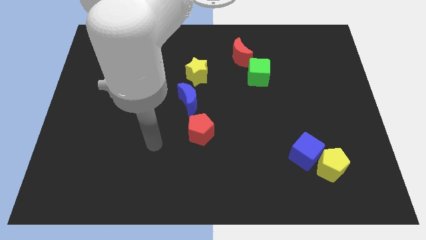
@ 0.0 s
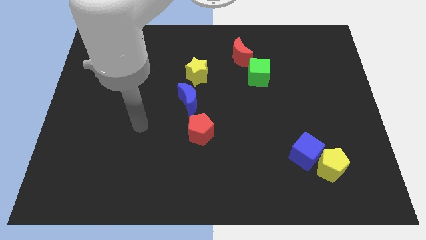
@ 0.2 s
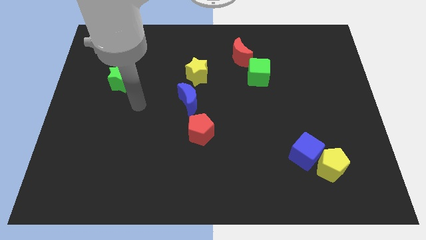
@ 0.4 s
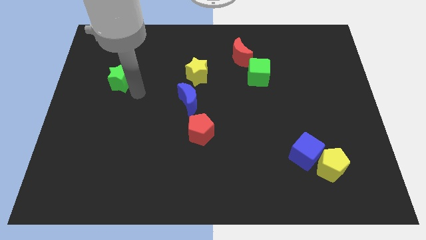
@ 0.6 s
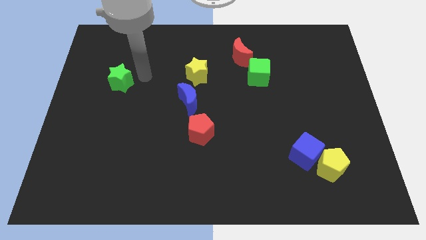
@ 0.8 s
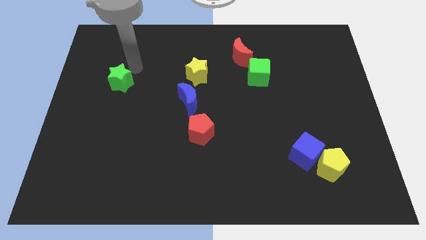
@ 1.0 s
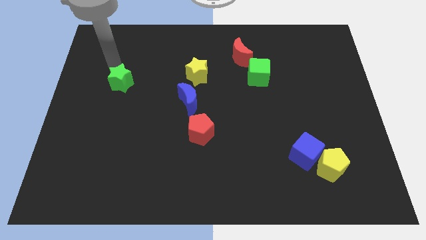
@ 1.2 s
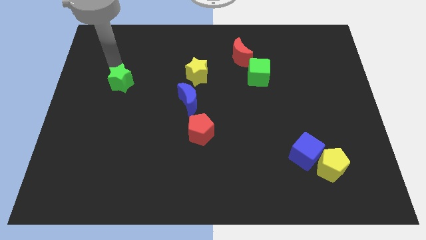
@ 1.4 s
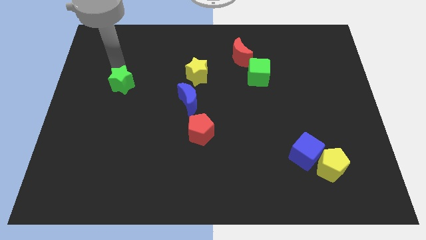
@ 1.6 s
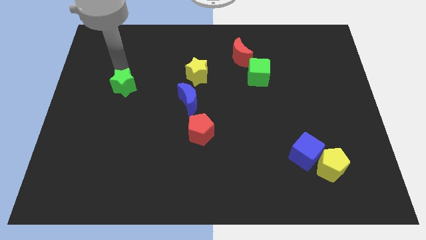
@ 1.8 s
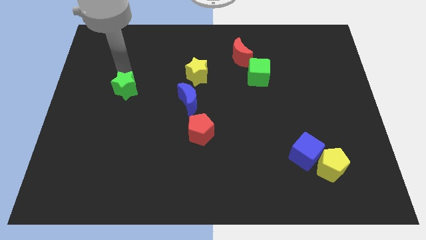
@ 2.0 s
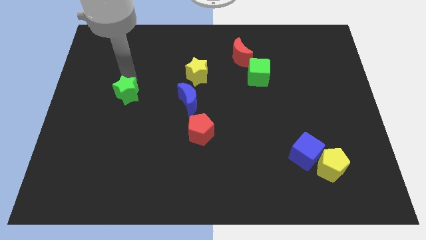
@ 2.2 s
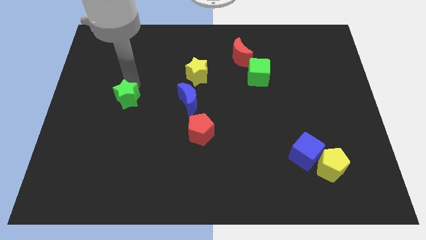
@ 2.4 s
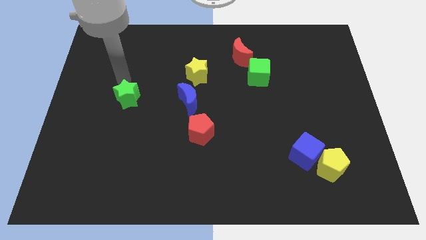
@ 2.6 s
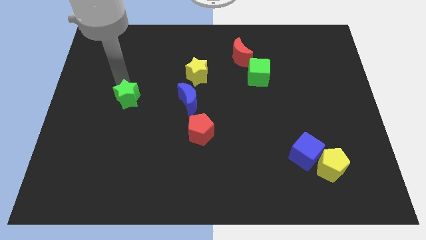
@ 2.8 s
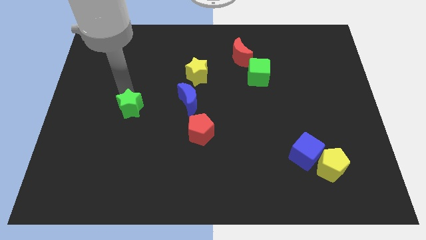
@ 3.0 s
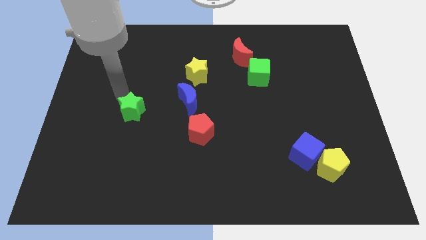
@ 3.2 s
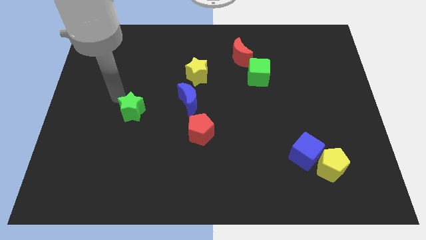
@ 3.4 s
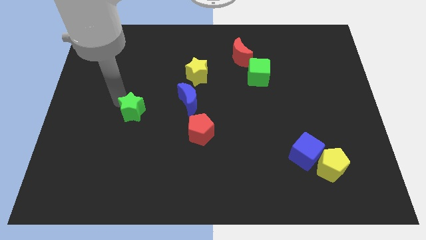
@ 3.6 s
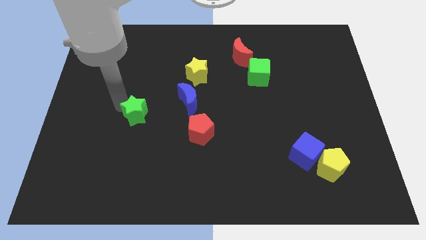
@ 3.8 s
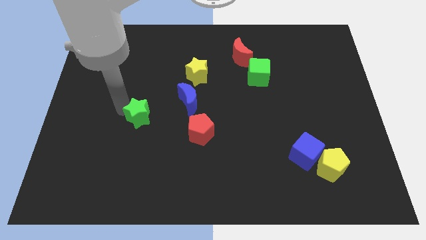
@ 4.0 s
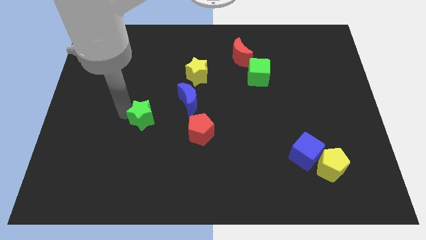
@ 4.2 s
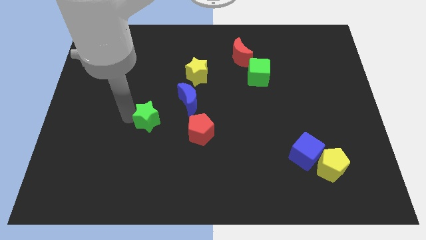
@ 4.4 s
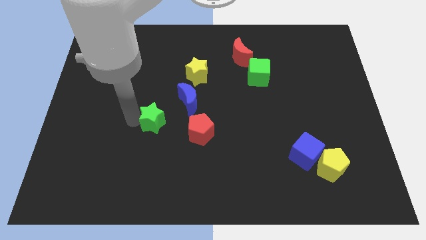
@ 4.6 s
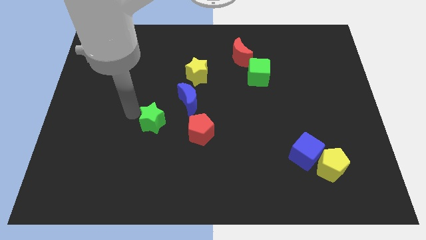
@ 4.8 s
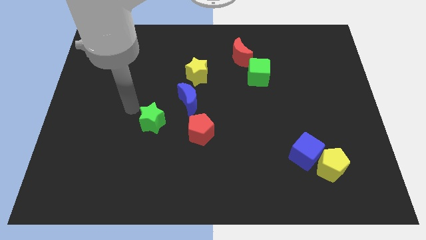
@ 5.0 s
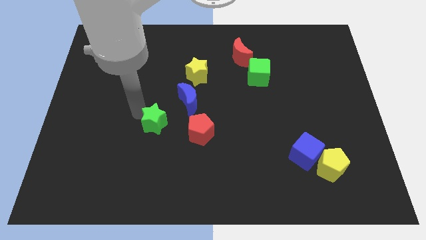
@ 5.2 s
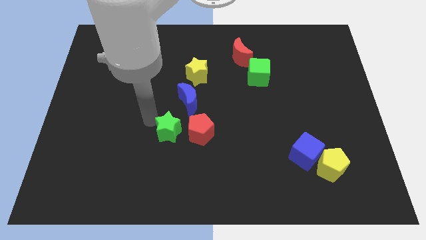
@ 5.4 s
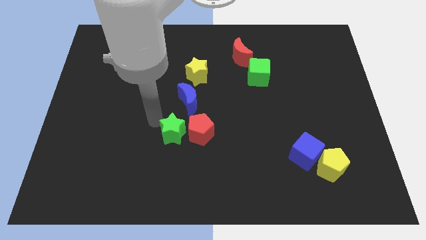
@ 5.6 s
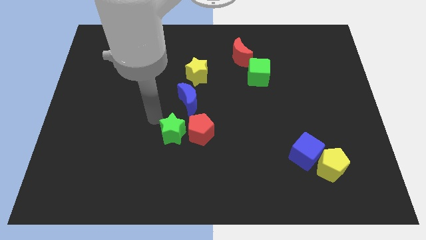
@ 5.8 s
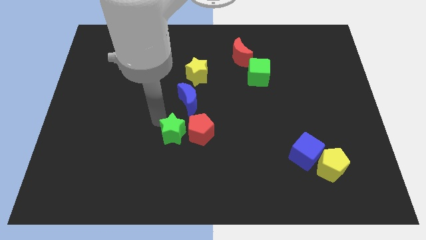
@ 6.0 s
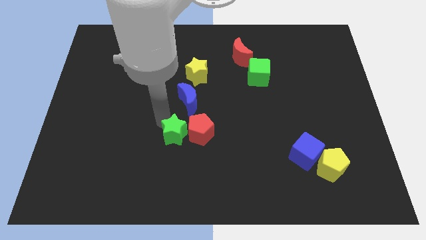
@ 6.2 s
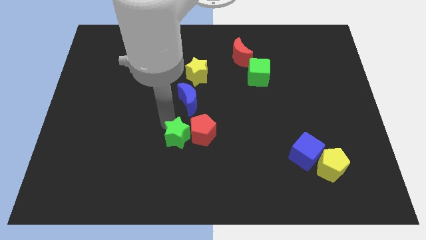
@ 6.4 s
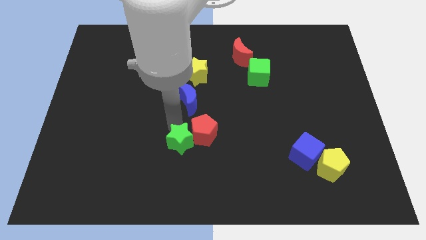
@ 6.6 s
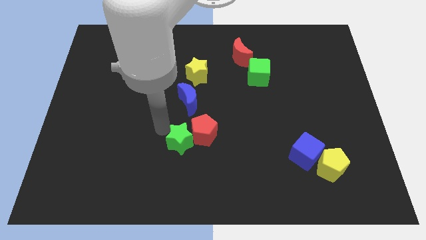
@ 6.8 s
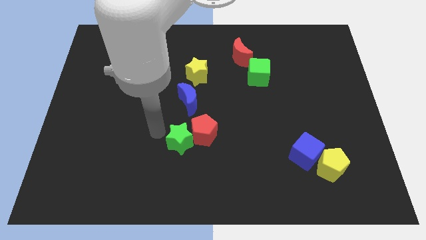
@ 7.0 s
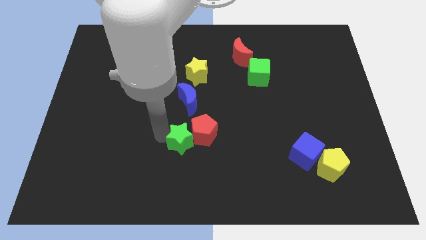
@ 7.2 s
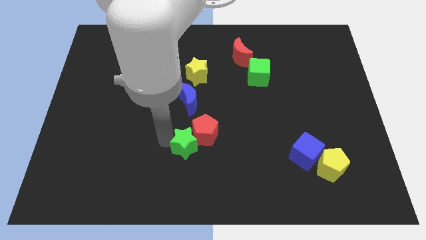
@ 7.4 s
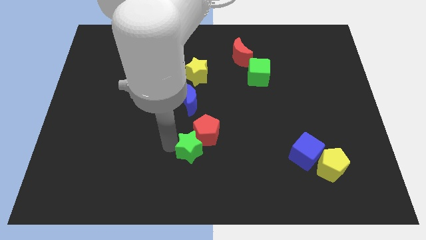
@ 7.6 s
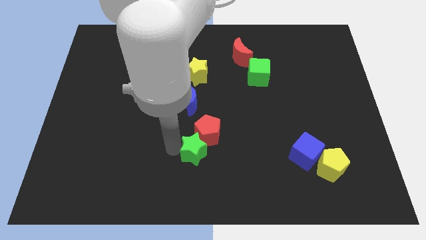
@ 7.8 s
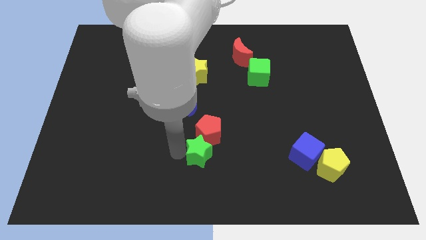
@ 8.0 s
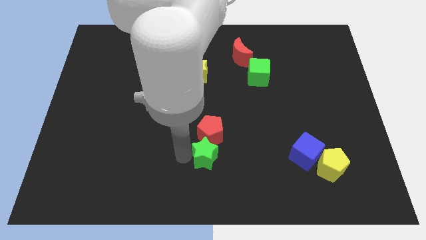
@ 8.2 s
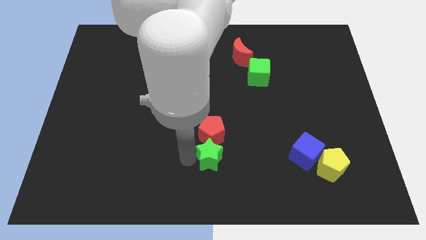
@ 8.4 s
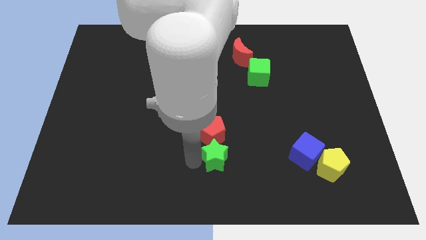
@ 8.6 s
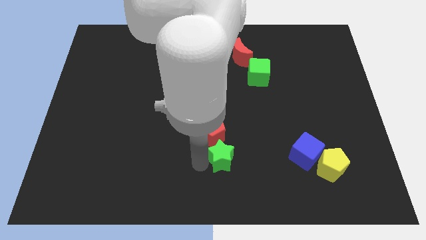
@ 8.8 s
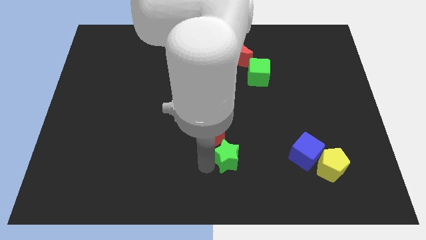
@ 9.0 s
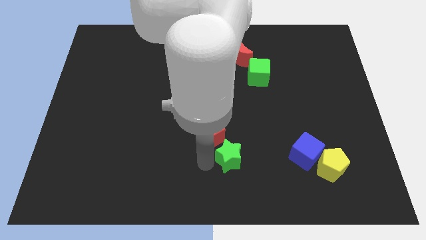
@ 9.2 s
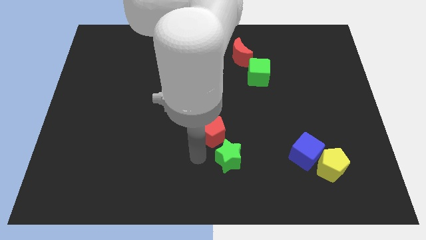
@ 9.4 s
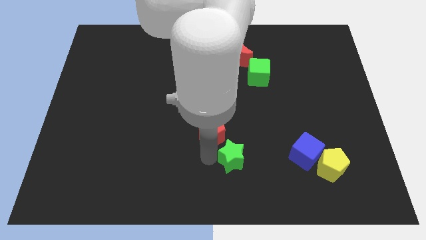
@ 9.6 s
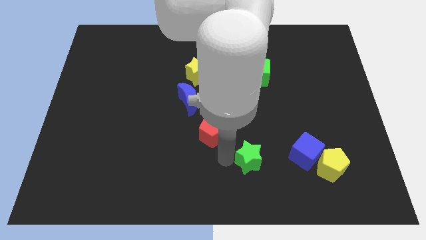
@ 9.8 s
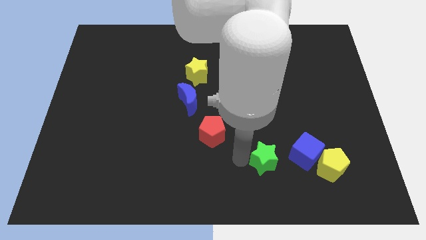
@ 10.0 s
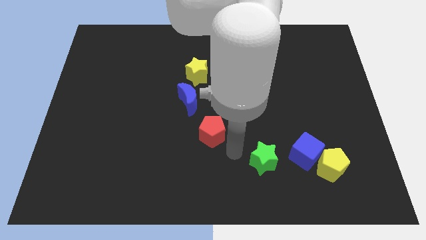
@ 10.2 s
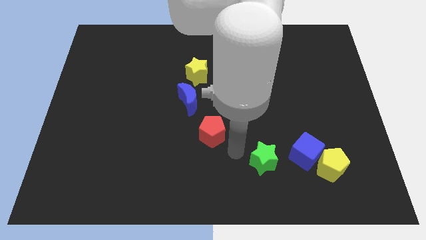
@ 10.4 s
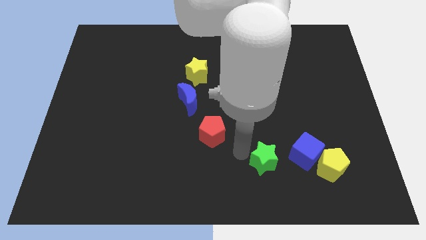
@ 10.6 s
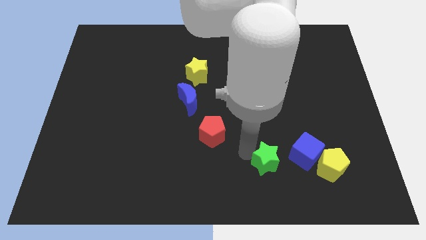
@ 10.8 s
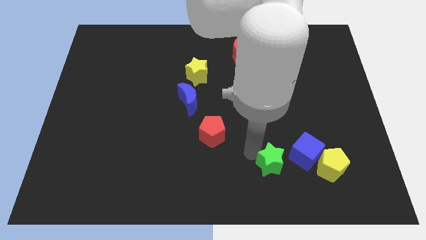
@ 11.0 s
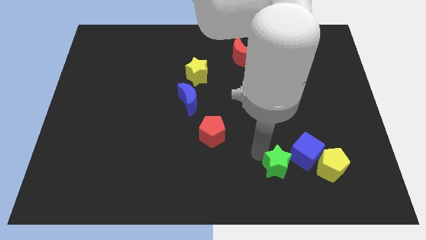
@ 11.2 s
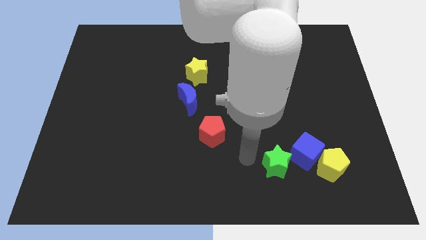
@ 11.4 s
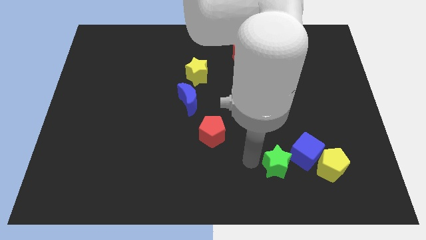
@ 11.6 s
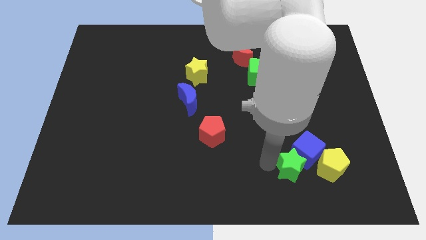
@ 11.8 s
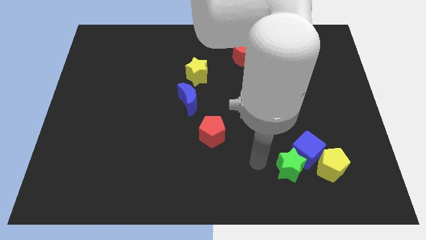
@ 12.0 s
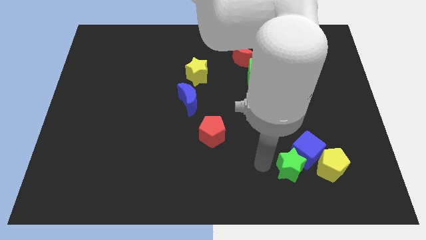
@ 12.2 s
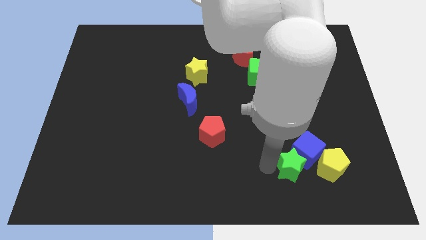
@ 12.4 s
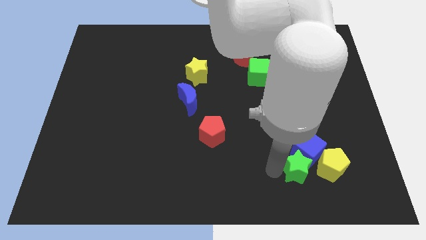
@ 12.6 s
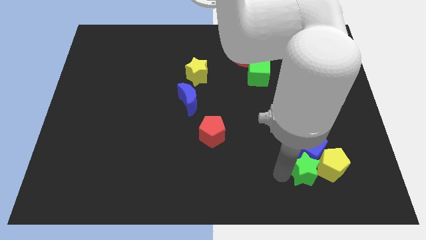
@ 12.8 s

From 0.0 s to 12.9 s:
put the green star next to the yellow pentagon

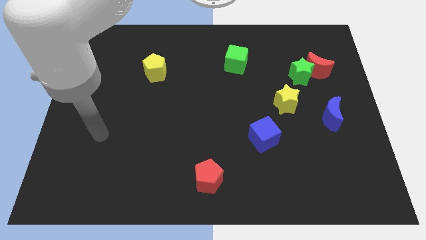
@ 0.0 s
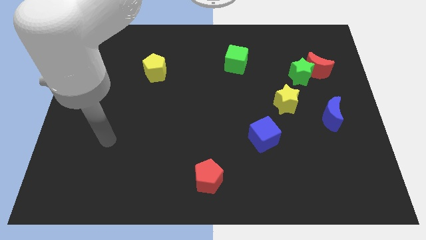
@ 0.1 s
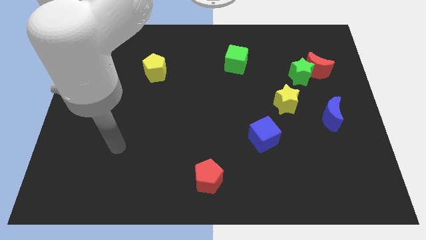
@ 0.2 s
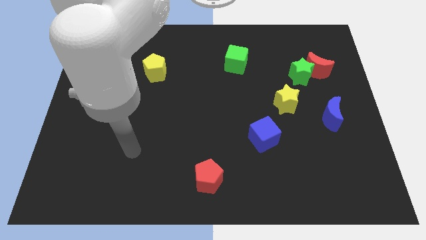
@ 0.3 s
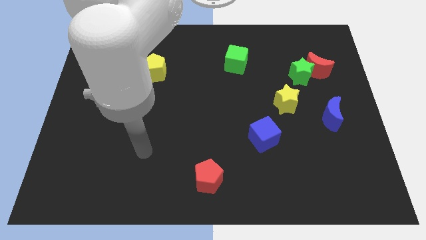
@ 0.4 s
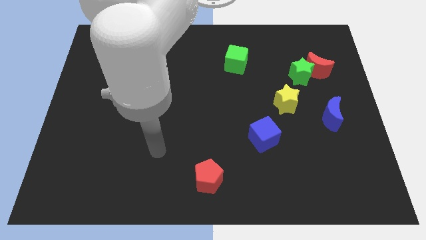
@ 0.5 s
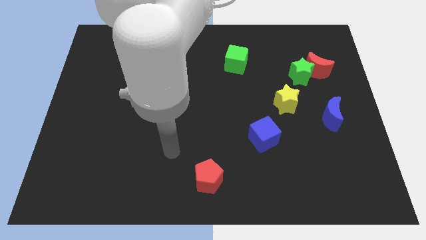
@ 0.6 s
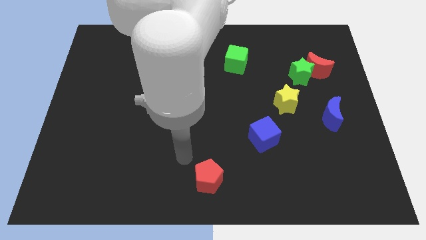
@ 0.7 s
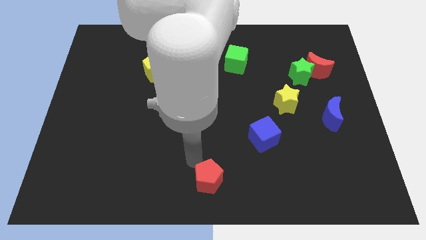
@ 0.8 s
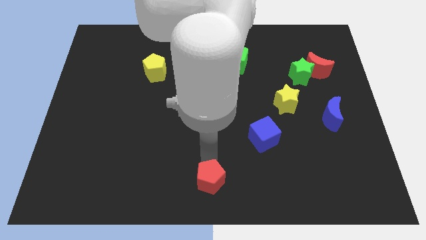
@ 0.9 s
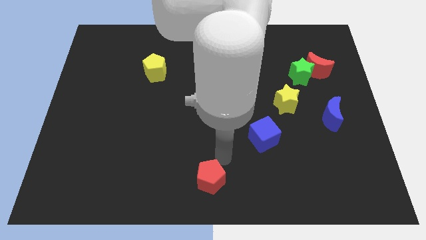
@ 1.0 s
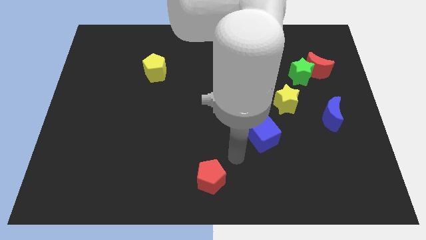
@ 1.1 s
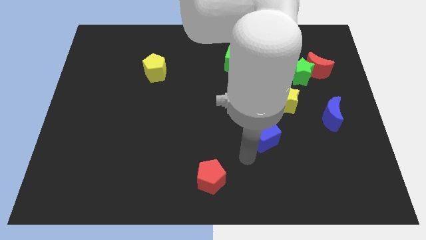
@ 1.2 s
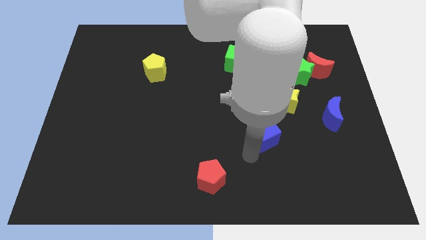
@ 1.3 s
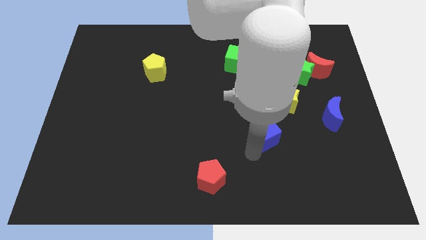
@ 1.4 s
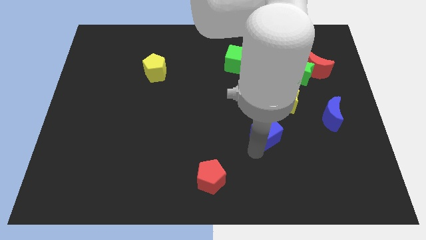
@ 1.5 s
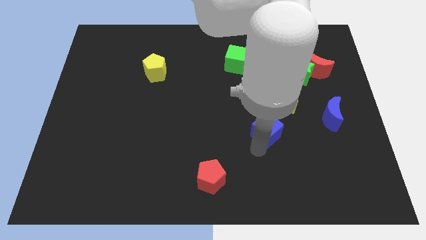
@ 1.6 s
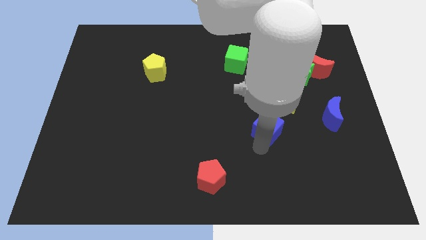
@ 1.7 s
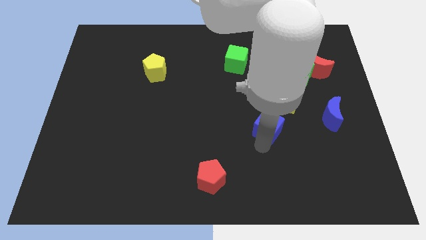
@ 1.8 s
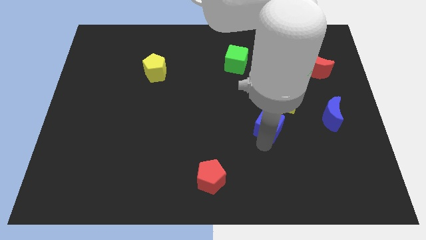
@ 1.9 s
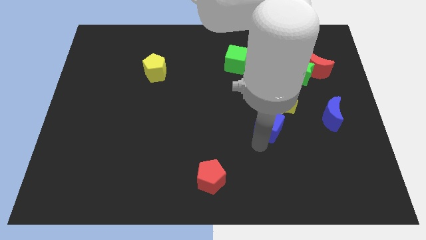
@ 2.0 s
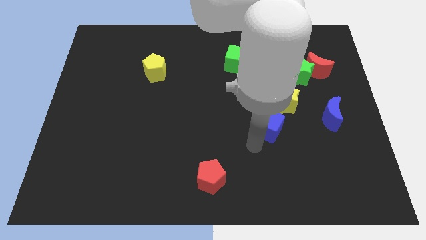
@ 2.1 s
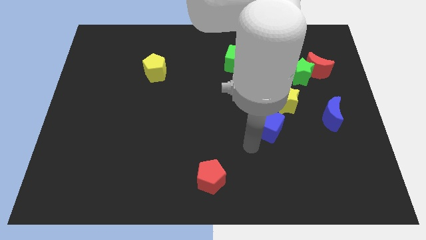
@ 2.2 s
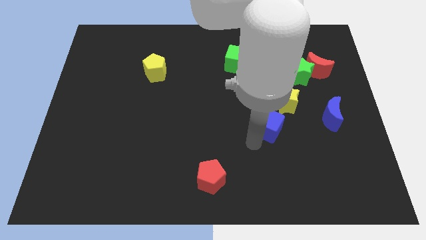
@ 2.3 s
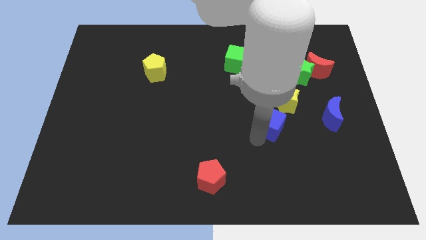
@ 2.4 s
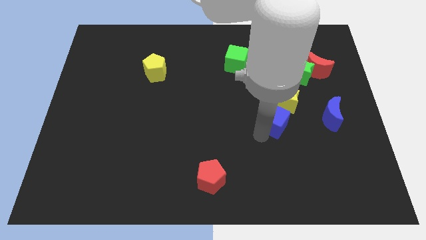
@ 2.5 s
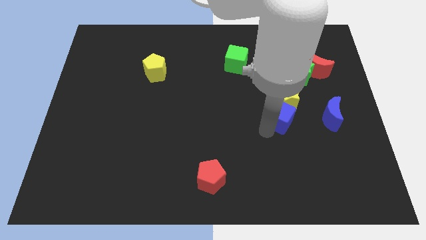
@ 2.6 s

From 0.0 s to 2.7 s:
push the blue cube towards the yellow star
